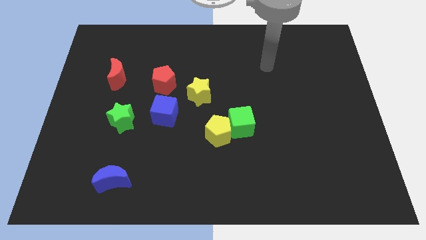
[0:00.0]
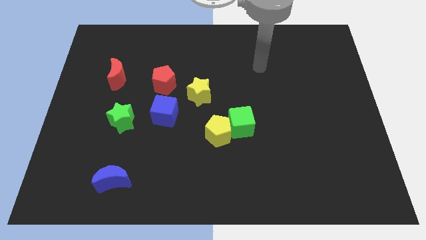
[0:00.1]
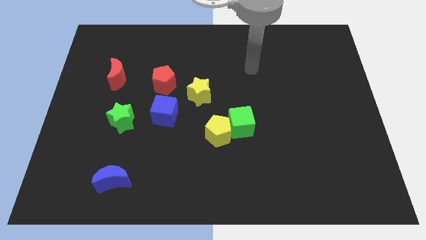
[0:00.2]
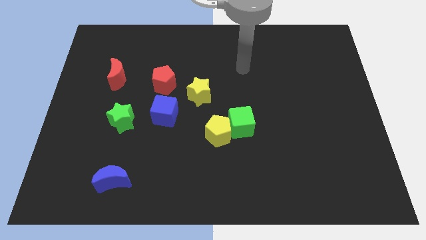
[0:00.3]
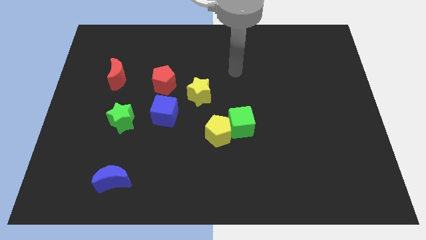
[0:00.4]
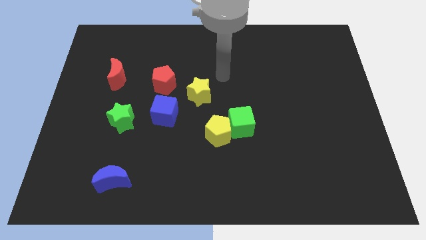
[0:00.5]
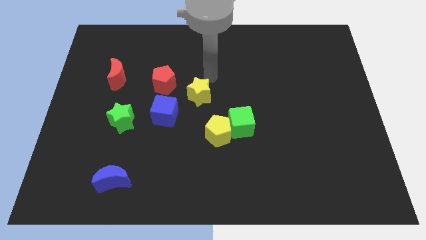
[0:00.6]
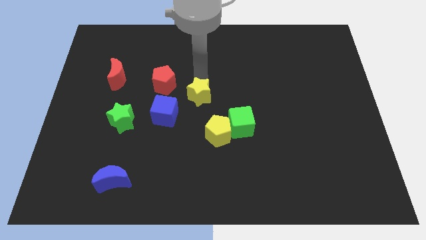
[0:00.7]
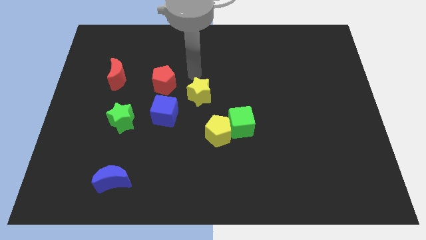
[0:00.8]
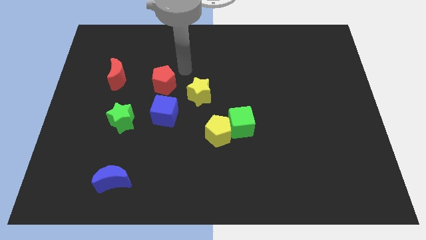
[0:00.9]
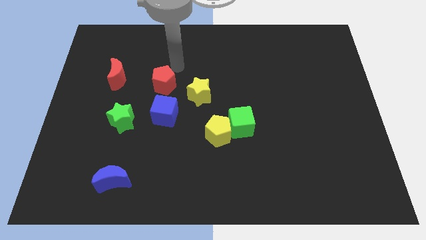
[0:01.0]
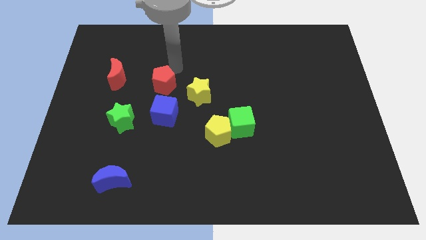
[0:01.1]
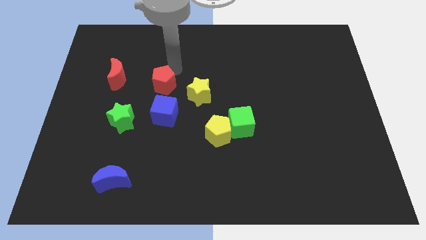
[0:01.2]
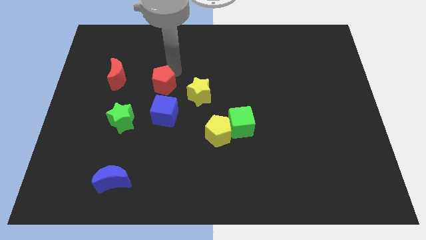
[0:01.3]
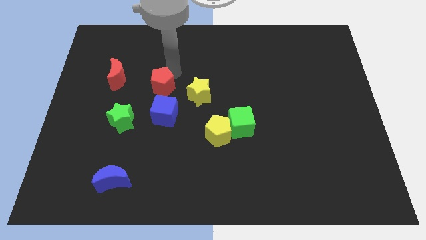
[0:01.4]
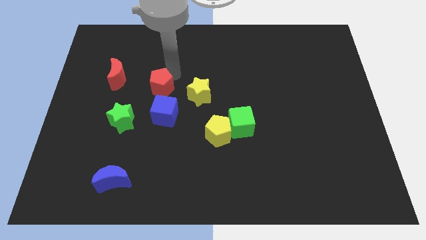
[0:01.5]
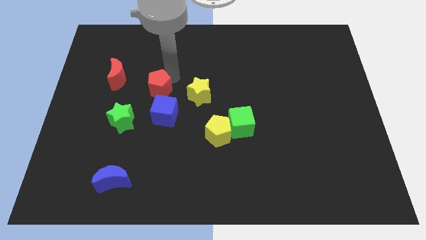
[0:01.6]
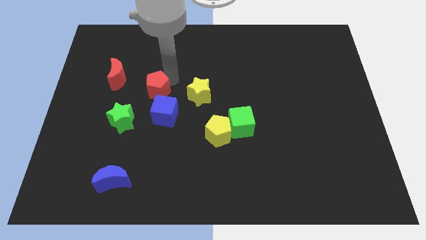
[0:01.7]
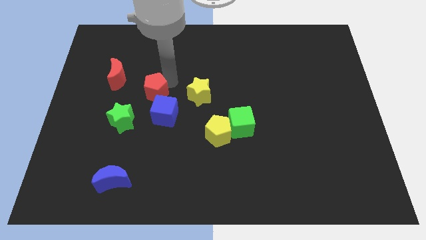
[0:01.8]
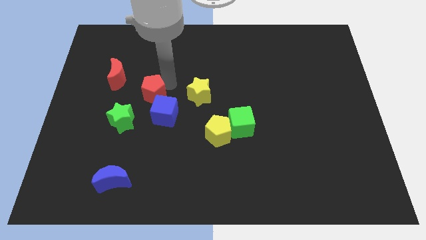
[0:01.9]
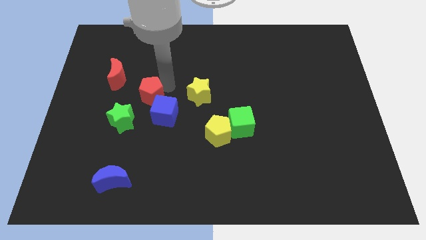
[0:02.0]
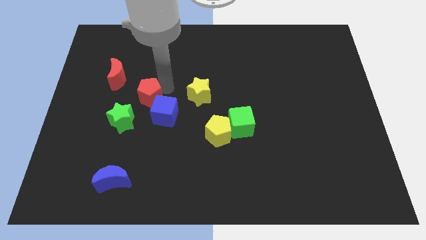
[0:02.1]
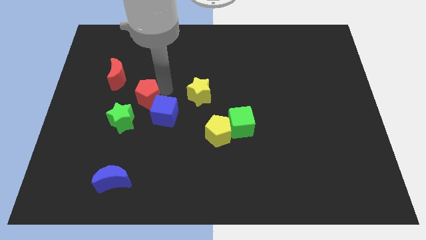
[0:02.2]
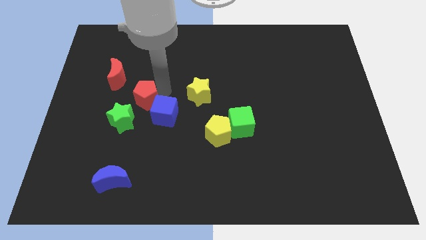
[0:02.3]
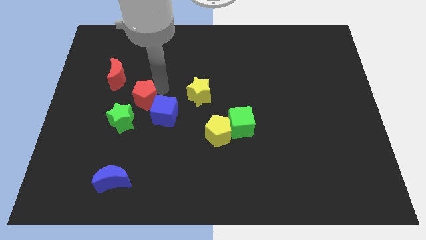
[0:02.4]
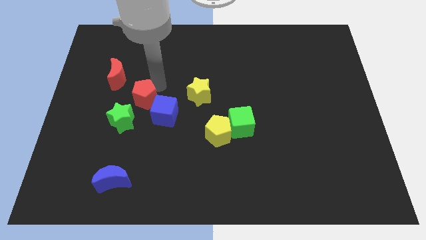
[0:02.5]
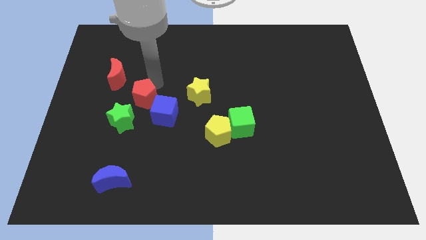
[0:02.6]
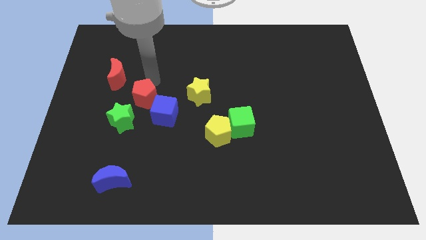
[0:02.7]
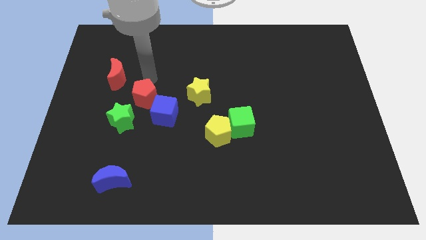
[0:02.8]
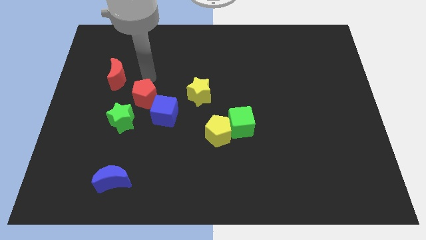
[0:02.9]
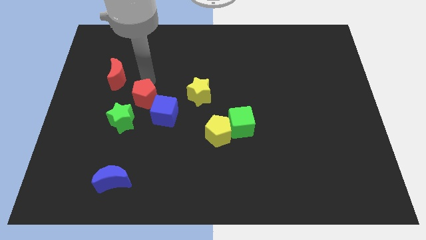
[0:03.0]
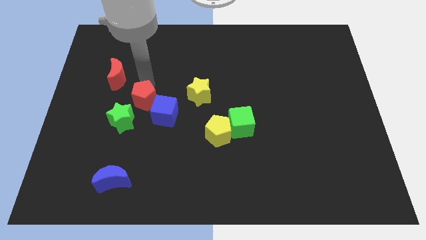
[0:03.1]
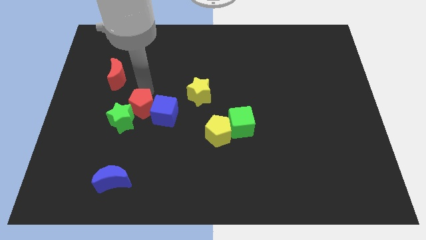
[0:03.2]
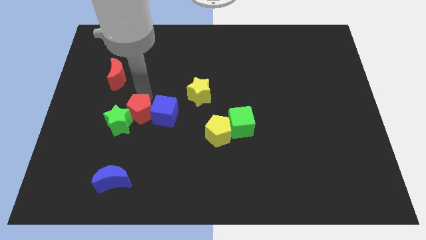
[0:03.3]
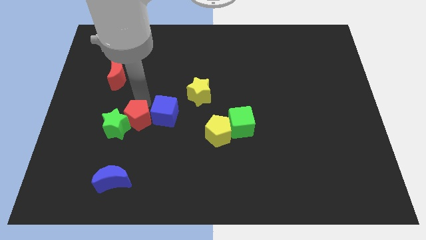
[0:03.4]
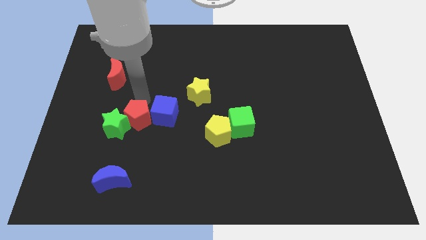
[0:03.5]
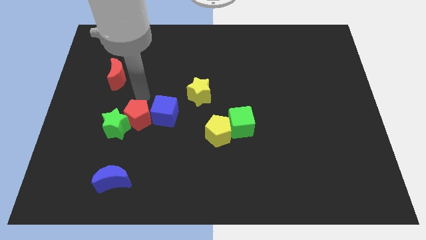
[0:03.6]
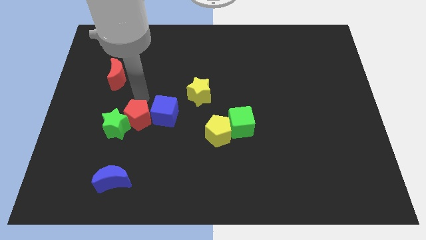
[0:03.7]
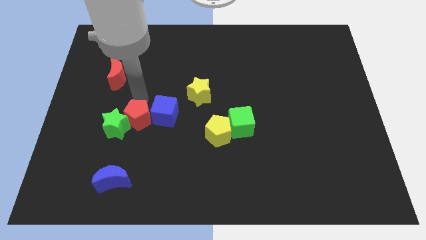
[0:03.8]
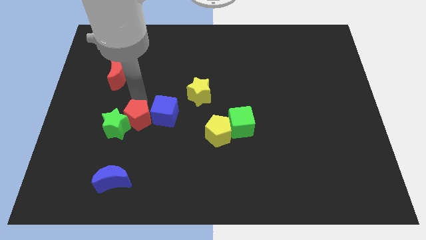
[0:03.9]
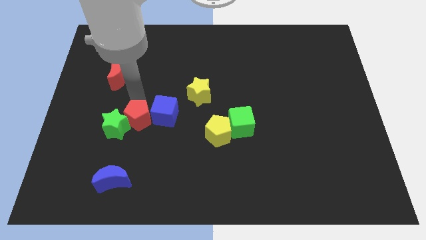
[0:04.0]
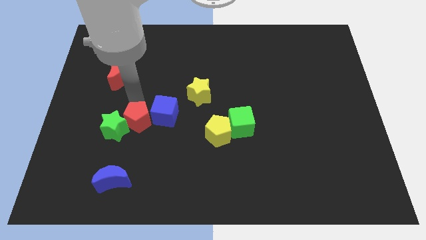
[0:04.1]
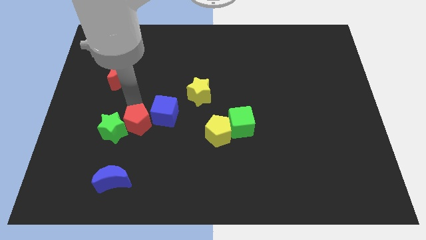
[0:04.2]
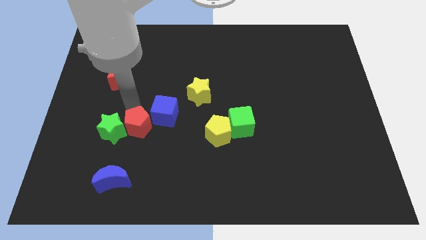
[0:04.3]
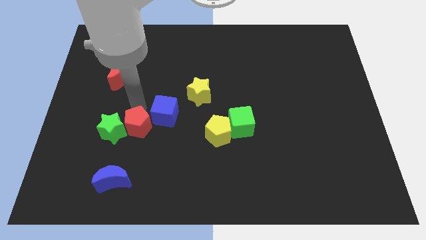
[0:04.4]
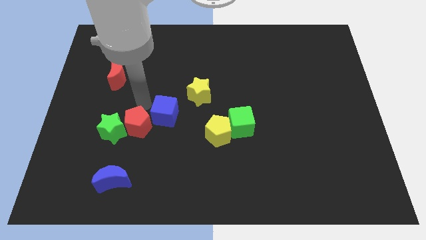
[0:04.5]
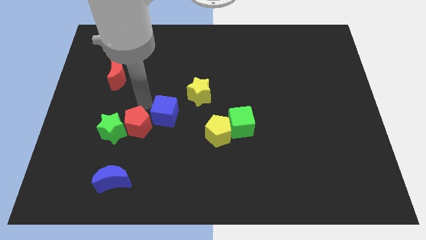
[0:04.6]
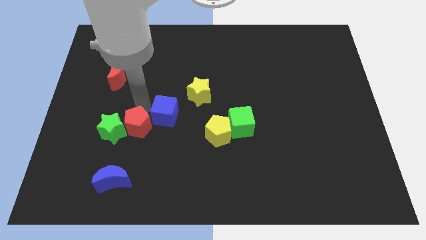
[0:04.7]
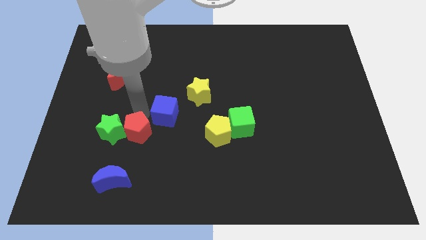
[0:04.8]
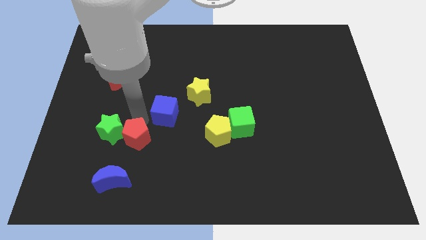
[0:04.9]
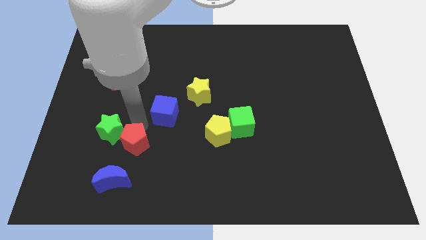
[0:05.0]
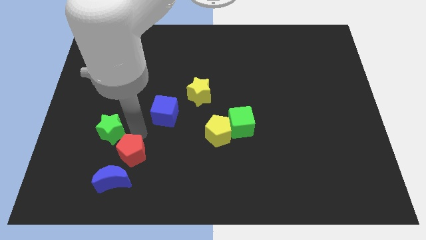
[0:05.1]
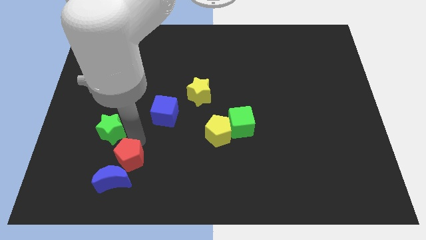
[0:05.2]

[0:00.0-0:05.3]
move the red pentagon next to the blue moon

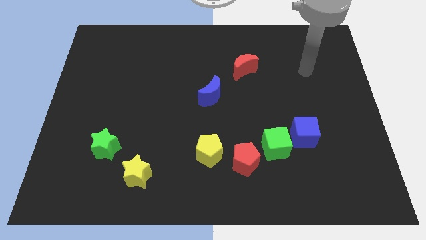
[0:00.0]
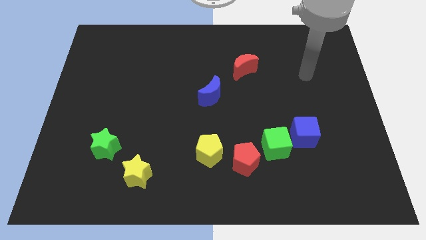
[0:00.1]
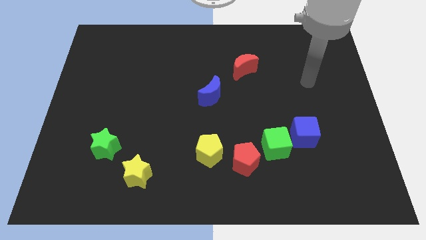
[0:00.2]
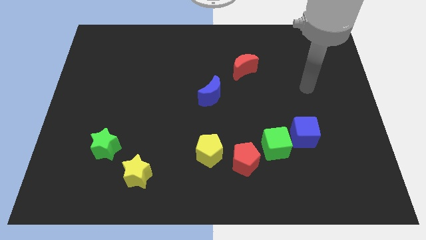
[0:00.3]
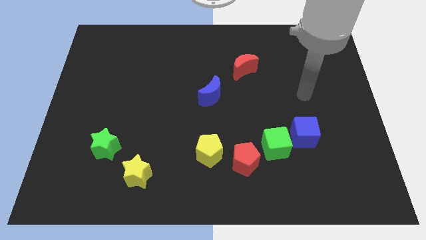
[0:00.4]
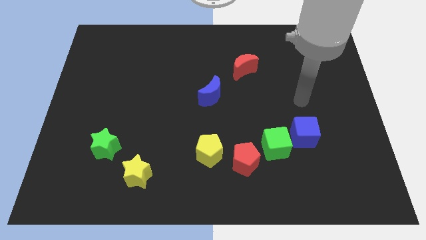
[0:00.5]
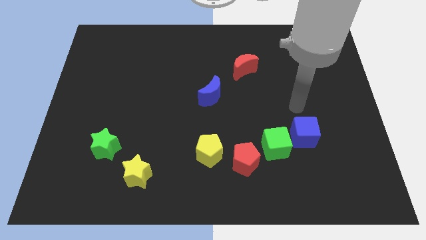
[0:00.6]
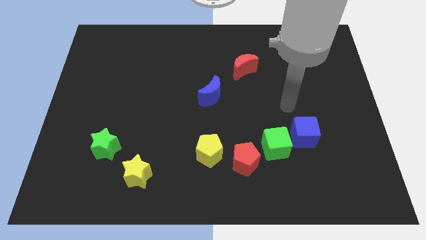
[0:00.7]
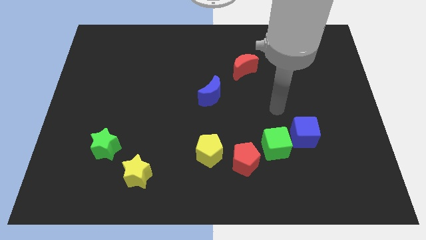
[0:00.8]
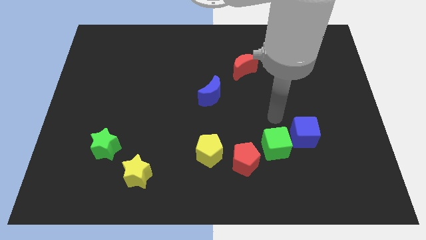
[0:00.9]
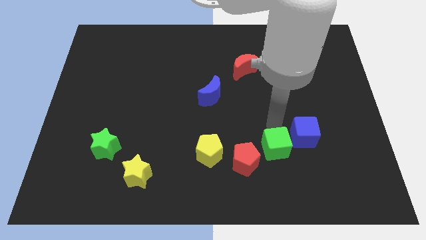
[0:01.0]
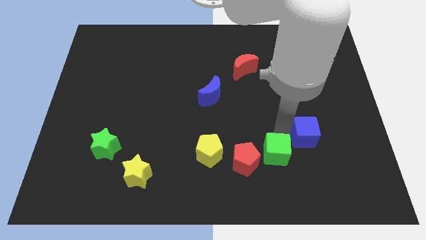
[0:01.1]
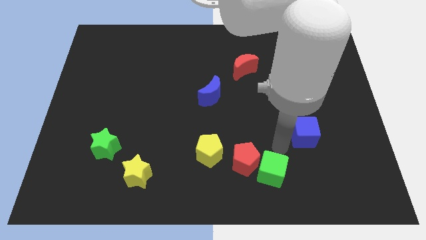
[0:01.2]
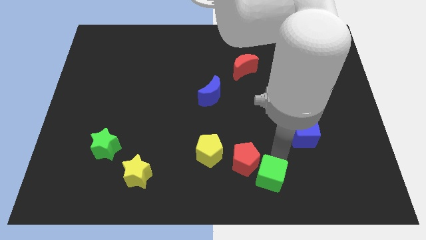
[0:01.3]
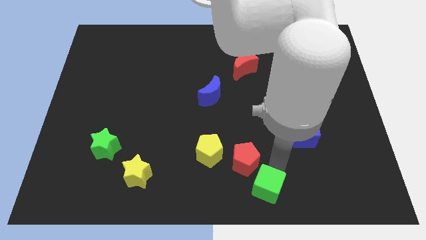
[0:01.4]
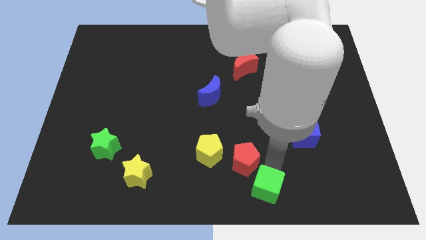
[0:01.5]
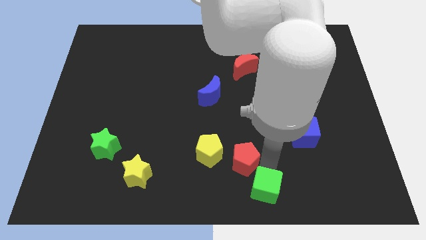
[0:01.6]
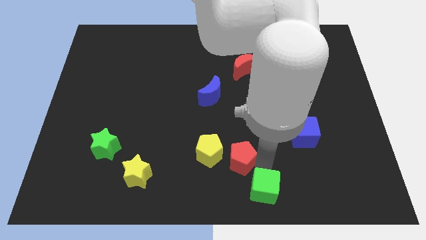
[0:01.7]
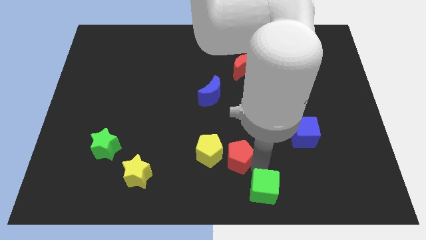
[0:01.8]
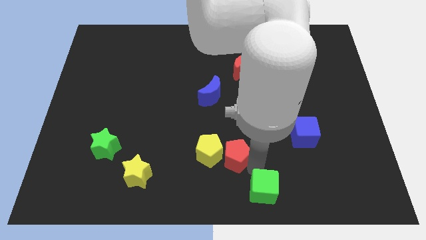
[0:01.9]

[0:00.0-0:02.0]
move the red pentagon to the yellow pentagon
